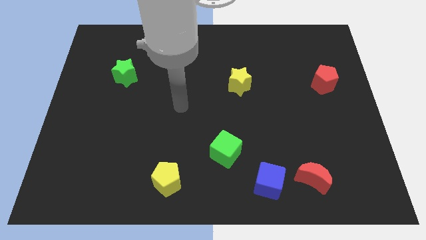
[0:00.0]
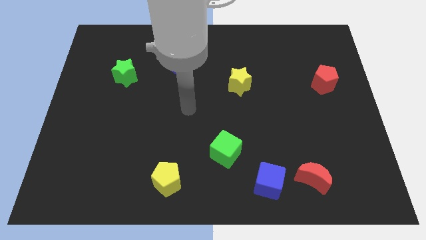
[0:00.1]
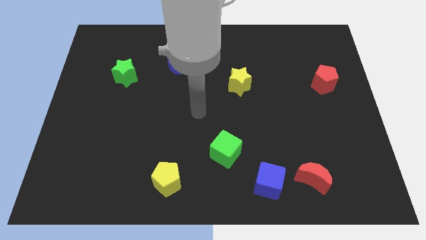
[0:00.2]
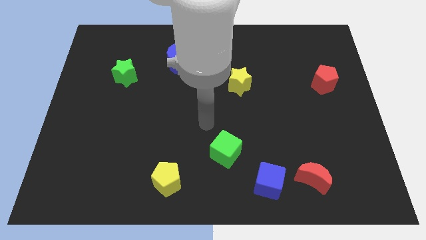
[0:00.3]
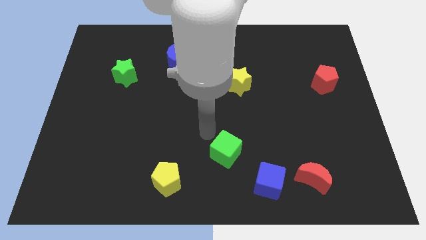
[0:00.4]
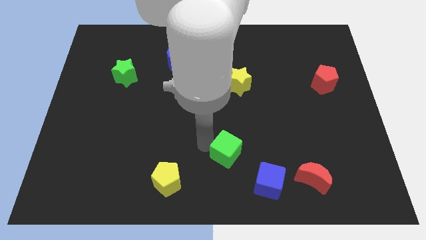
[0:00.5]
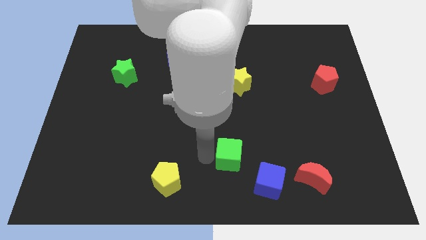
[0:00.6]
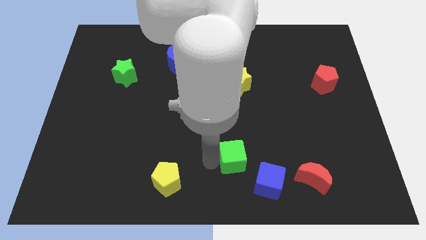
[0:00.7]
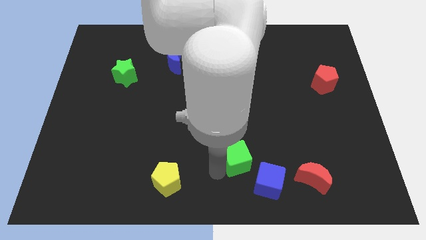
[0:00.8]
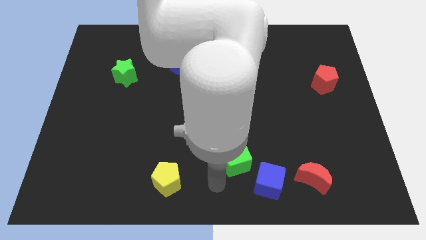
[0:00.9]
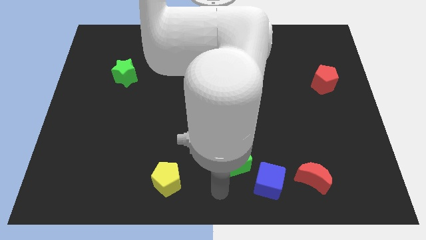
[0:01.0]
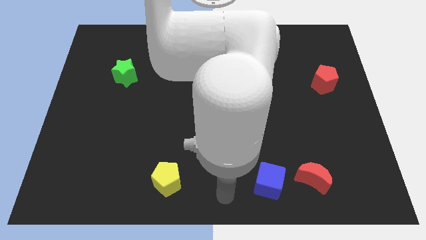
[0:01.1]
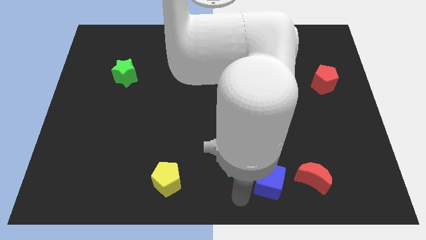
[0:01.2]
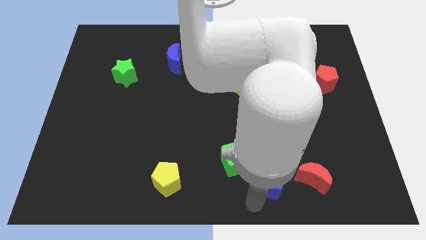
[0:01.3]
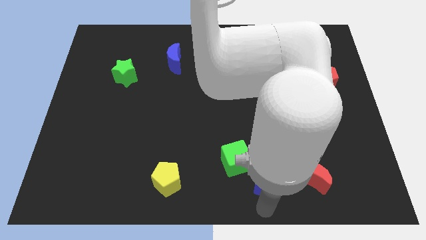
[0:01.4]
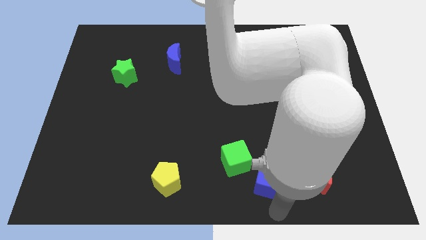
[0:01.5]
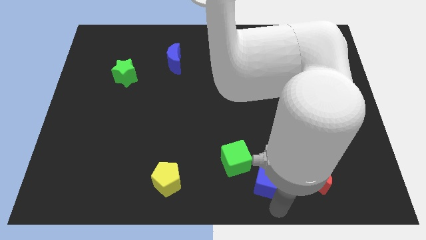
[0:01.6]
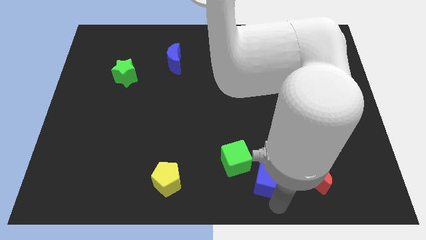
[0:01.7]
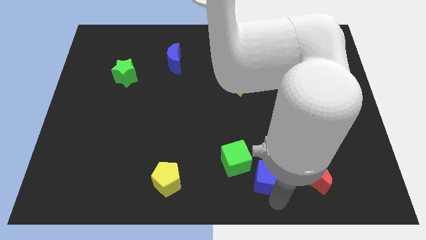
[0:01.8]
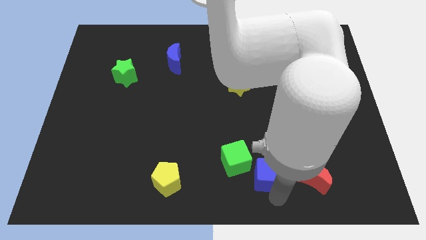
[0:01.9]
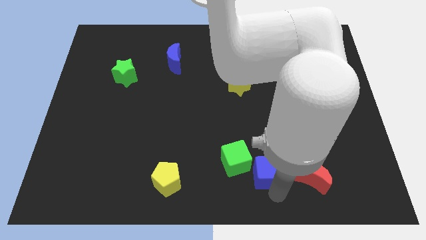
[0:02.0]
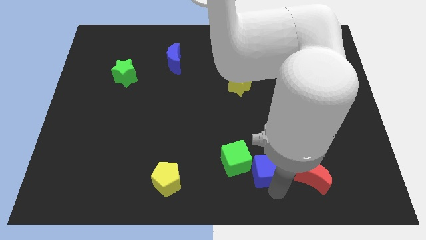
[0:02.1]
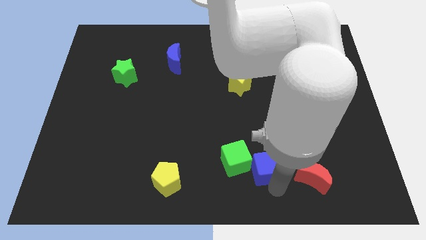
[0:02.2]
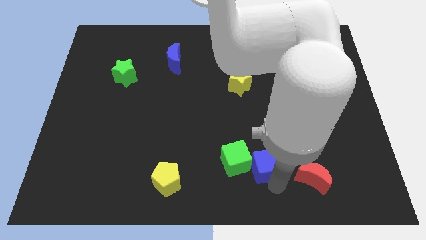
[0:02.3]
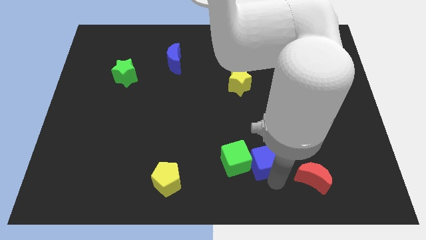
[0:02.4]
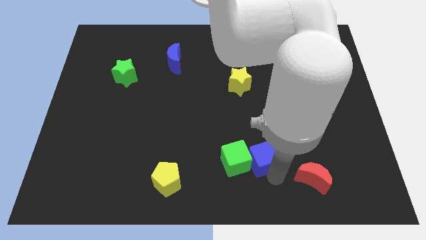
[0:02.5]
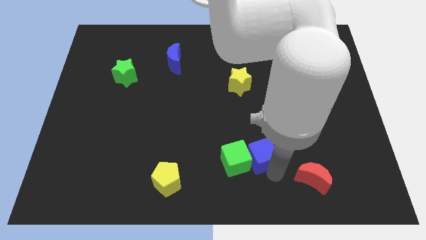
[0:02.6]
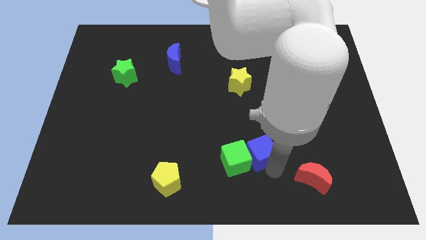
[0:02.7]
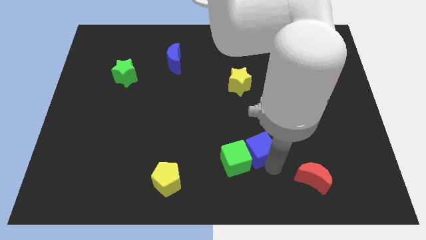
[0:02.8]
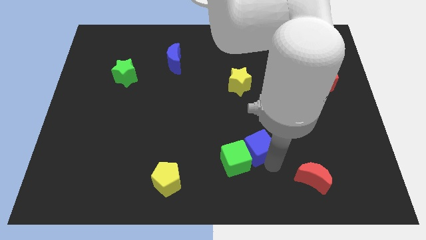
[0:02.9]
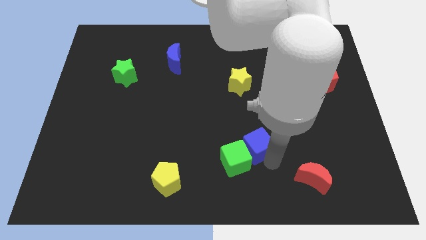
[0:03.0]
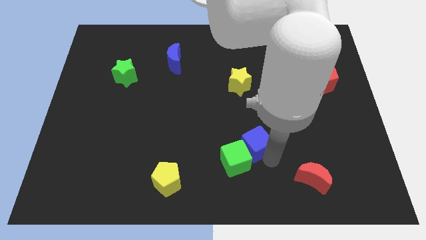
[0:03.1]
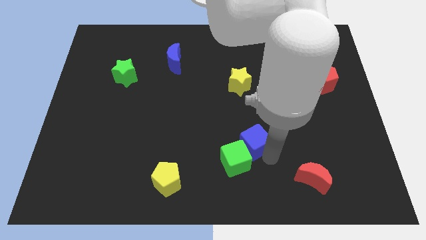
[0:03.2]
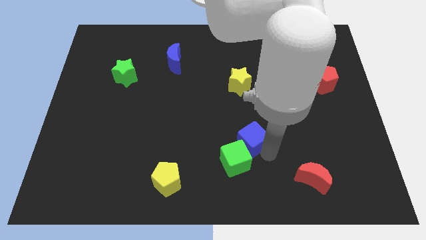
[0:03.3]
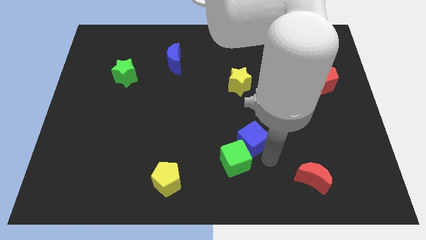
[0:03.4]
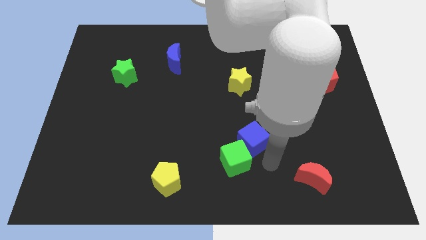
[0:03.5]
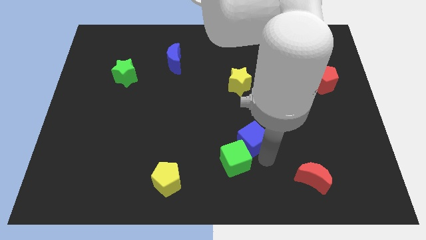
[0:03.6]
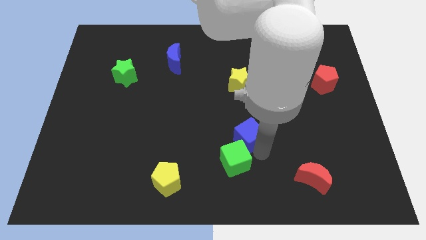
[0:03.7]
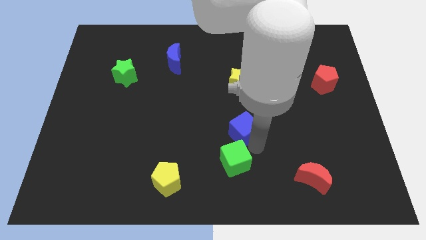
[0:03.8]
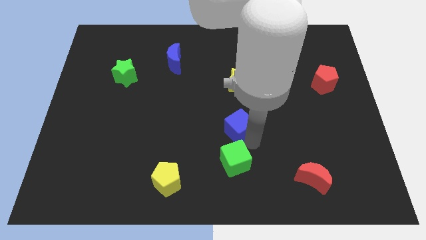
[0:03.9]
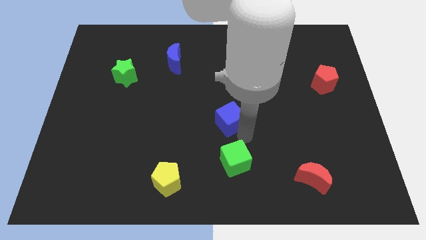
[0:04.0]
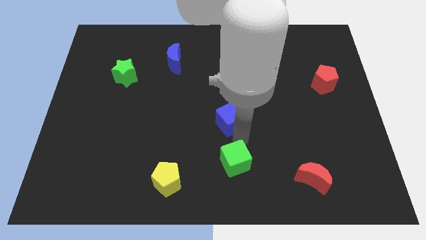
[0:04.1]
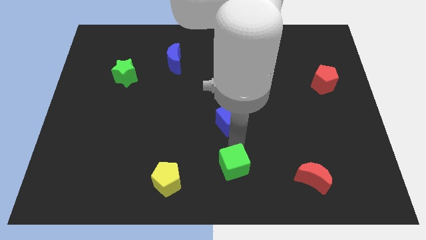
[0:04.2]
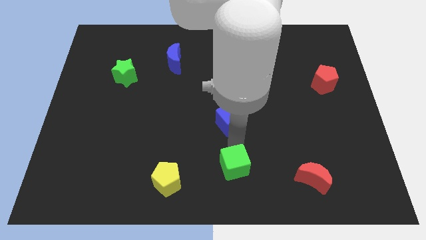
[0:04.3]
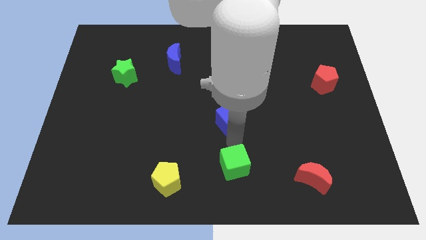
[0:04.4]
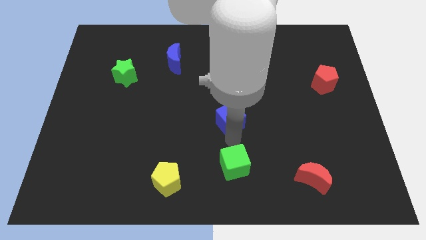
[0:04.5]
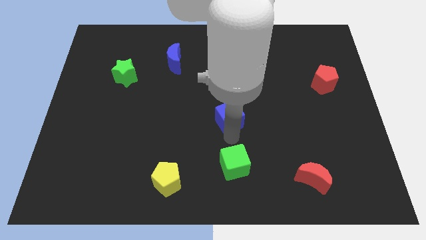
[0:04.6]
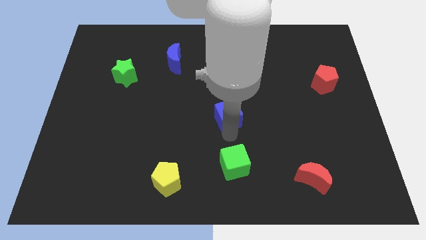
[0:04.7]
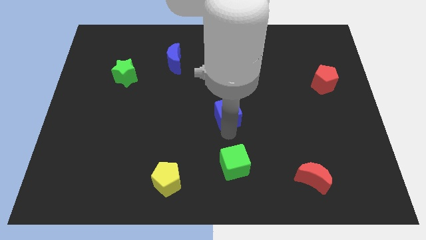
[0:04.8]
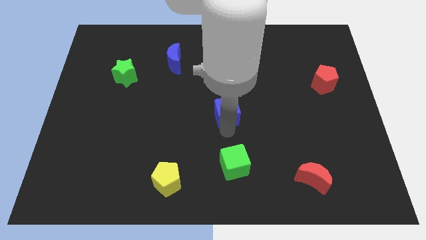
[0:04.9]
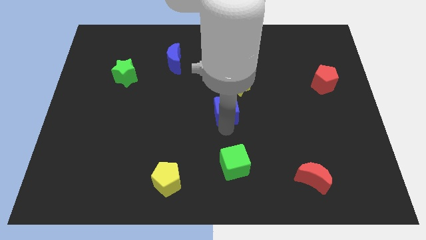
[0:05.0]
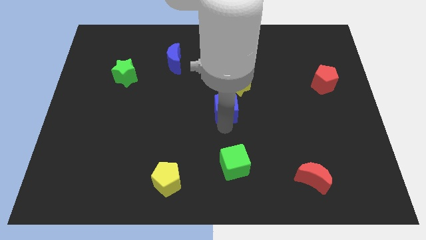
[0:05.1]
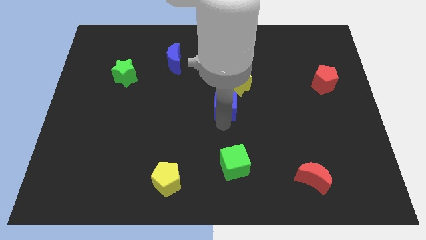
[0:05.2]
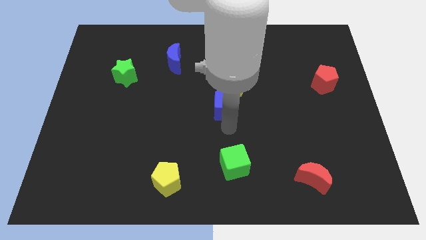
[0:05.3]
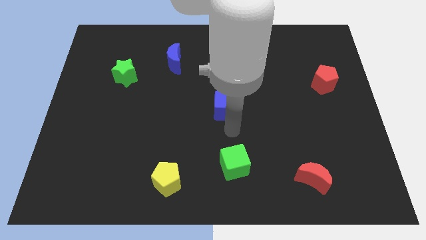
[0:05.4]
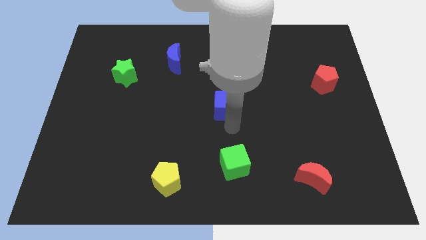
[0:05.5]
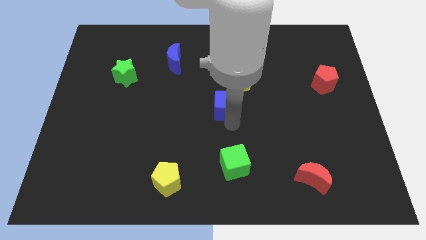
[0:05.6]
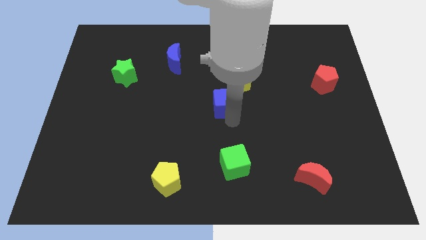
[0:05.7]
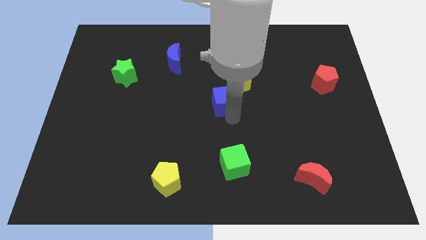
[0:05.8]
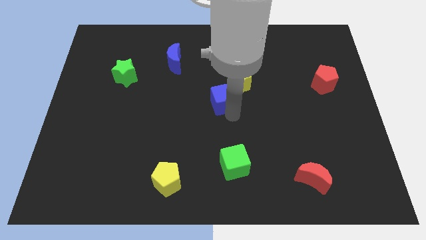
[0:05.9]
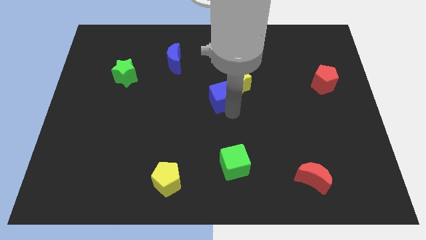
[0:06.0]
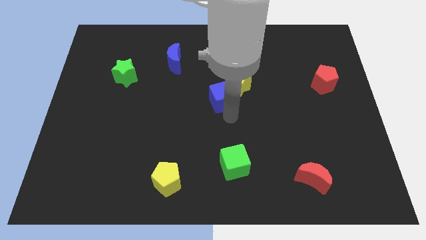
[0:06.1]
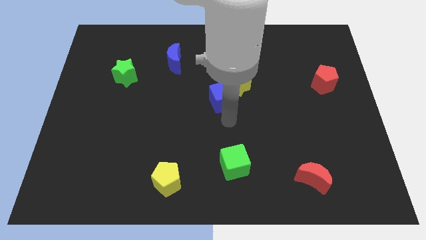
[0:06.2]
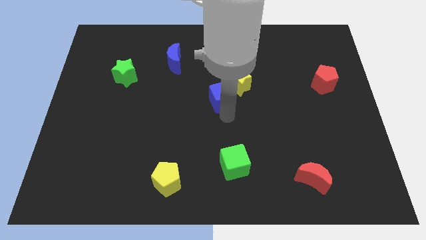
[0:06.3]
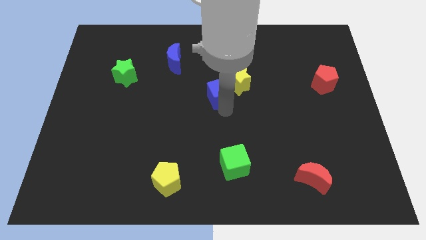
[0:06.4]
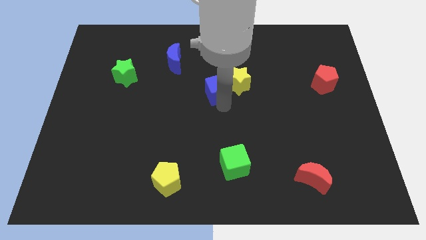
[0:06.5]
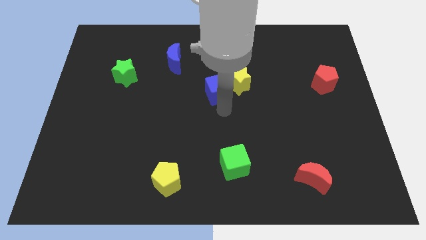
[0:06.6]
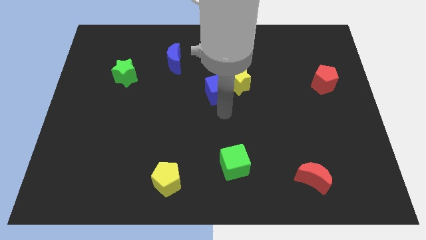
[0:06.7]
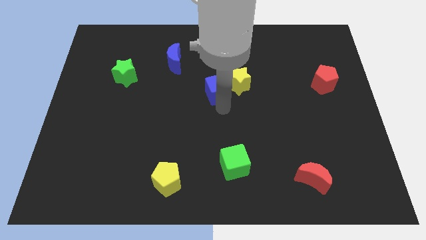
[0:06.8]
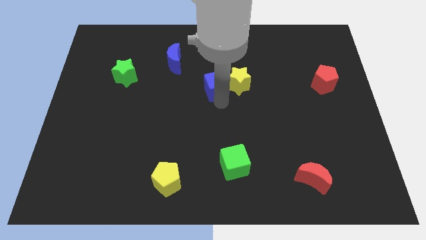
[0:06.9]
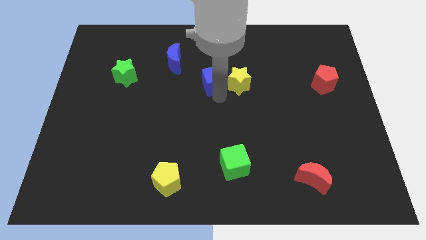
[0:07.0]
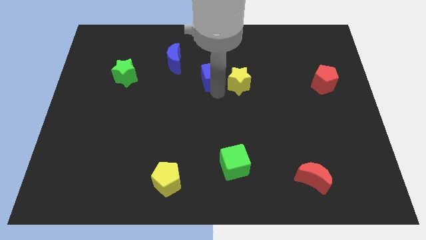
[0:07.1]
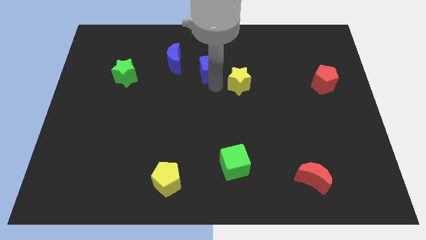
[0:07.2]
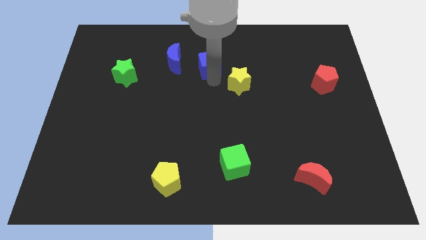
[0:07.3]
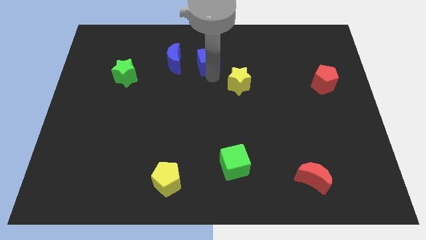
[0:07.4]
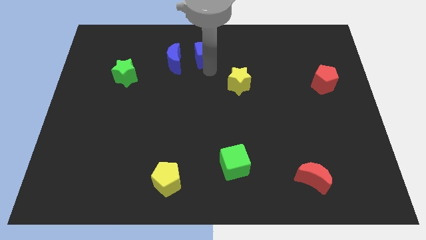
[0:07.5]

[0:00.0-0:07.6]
slide the blue cube to the top side
